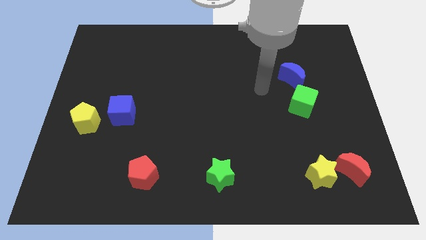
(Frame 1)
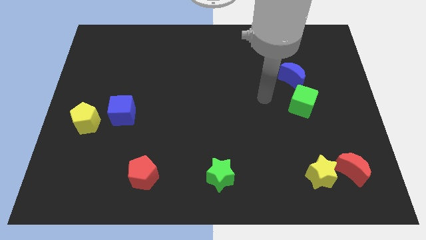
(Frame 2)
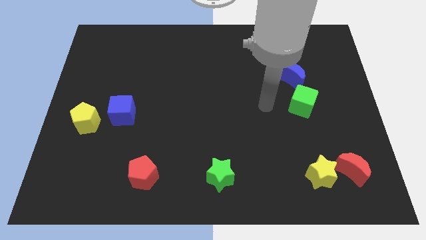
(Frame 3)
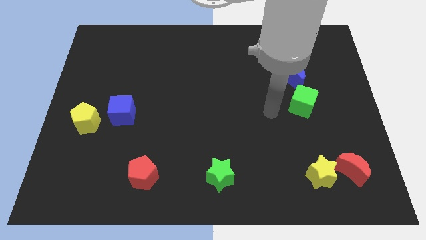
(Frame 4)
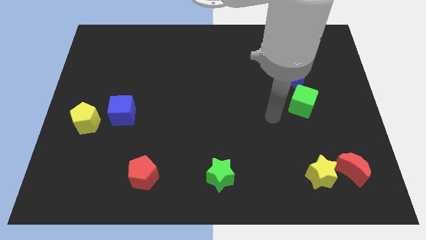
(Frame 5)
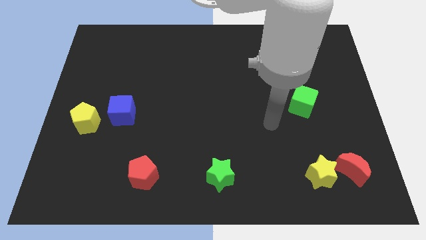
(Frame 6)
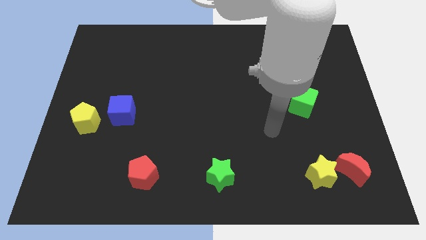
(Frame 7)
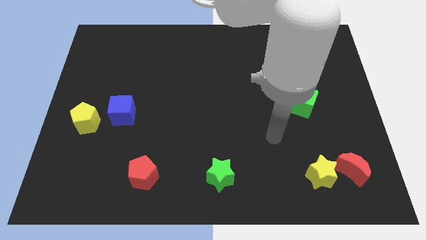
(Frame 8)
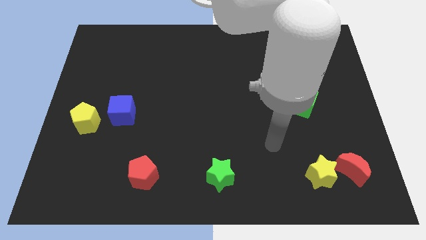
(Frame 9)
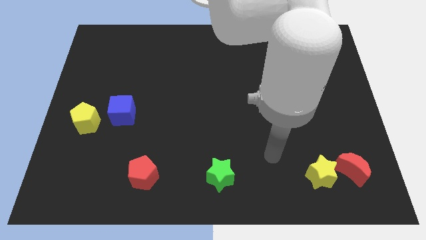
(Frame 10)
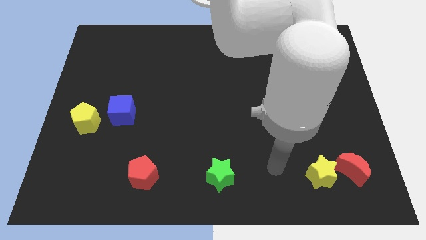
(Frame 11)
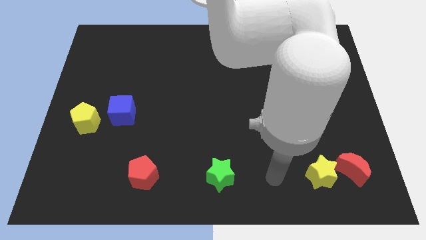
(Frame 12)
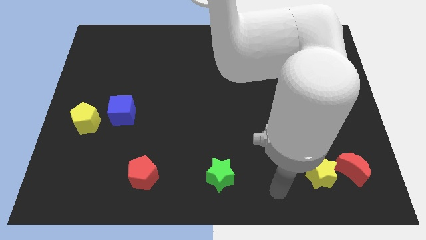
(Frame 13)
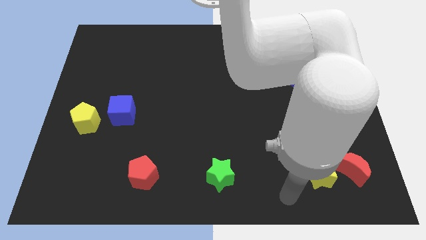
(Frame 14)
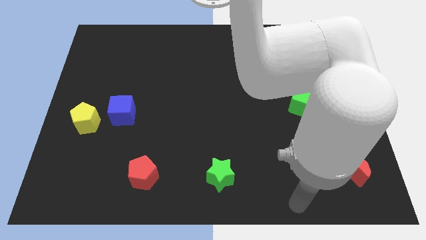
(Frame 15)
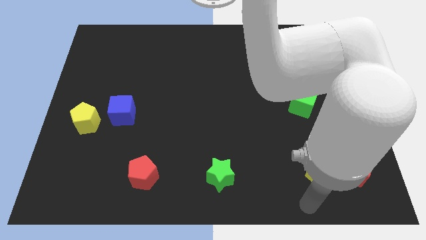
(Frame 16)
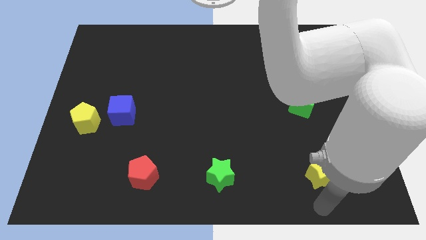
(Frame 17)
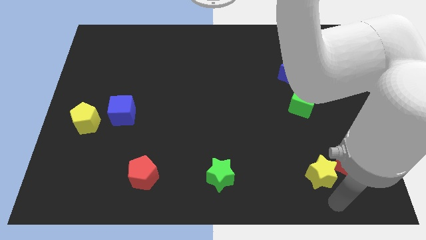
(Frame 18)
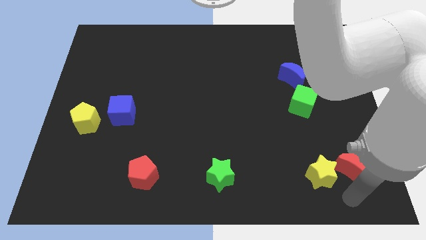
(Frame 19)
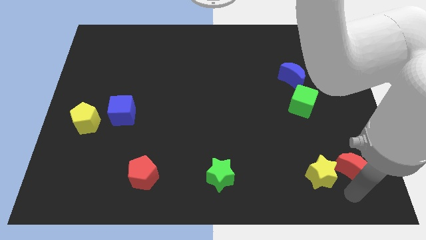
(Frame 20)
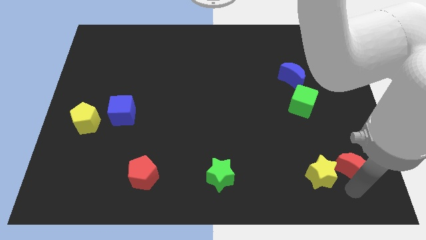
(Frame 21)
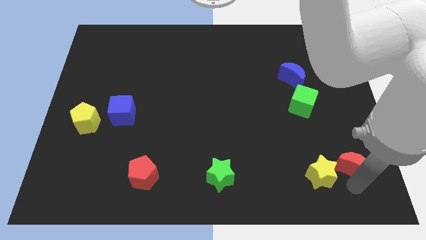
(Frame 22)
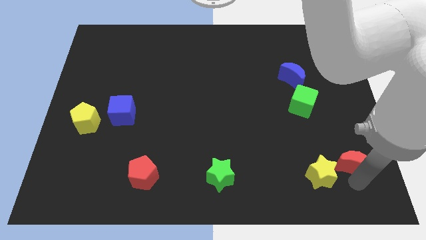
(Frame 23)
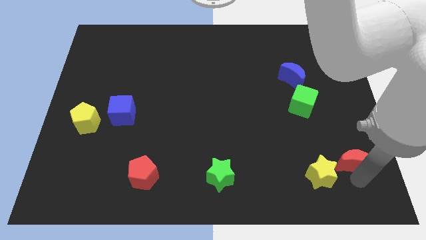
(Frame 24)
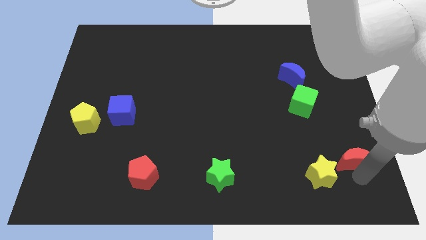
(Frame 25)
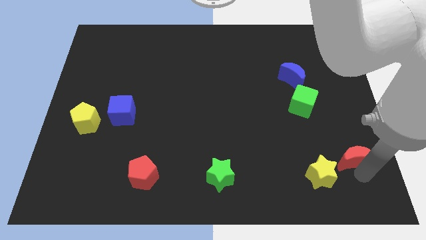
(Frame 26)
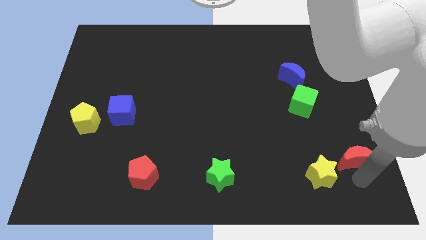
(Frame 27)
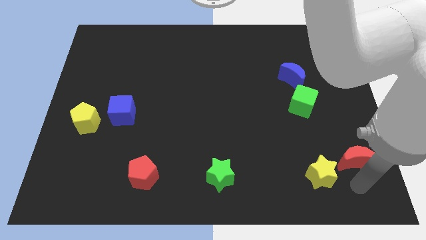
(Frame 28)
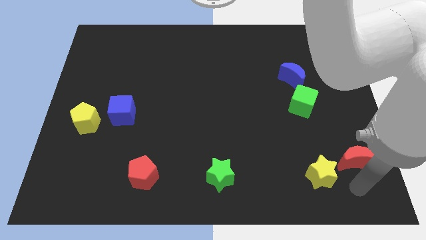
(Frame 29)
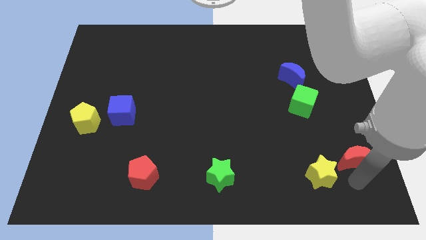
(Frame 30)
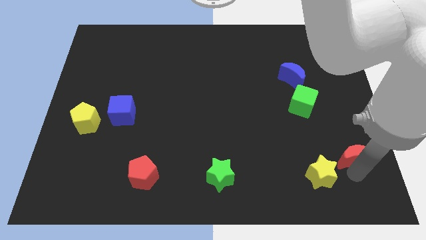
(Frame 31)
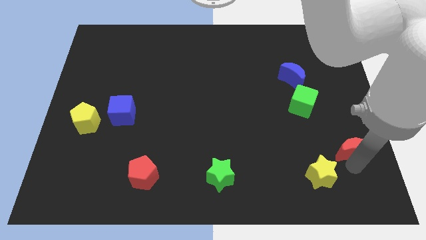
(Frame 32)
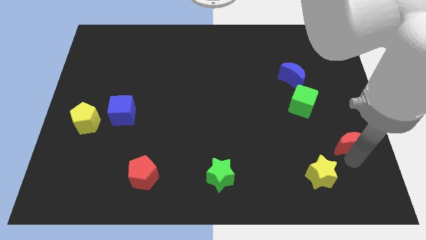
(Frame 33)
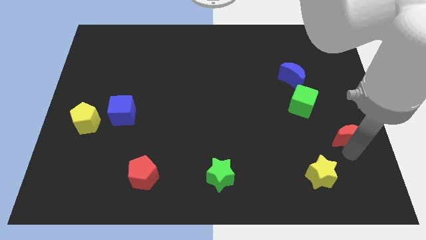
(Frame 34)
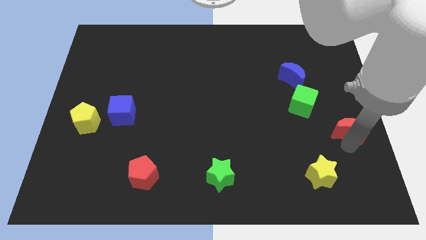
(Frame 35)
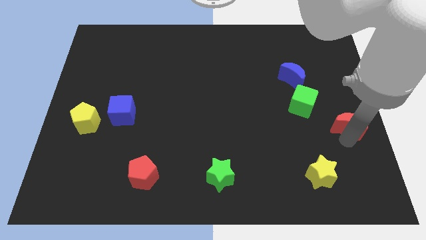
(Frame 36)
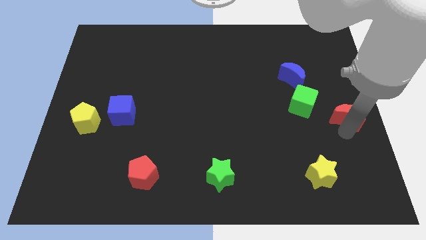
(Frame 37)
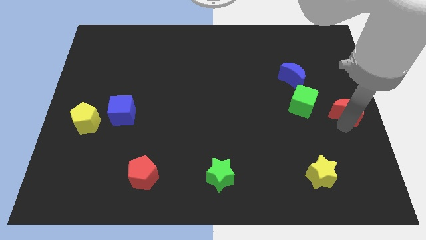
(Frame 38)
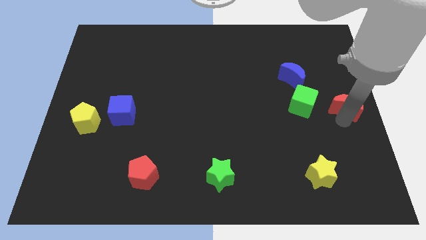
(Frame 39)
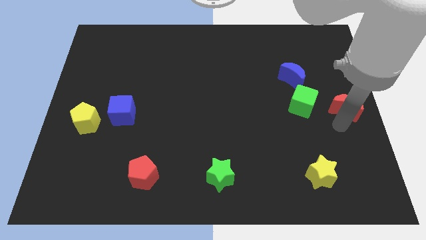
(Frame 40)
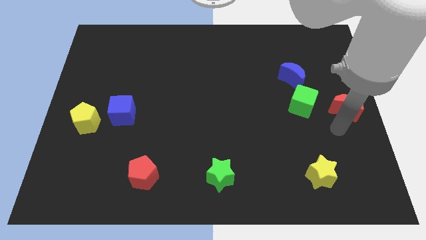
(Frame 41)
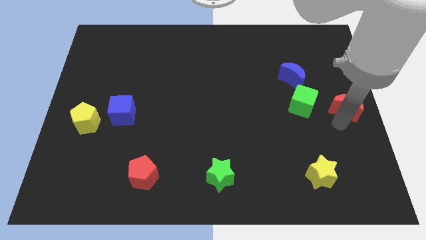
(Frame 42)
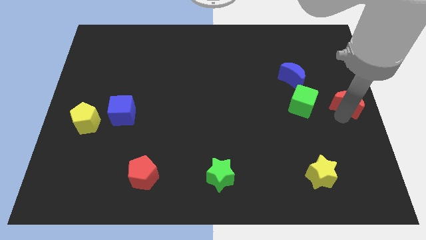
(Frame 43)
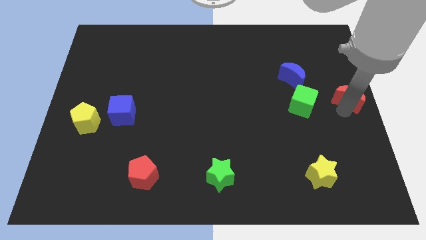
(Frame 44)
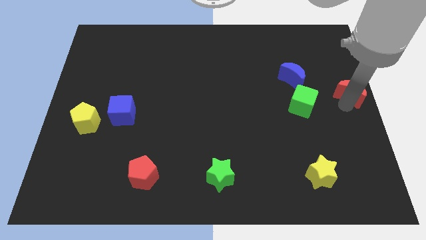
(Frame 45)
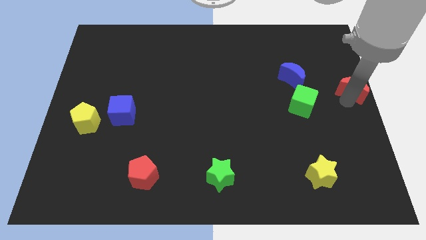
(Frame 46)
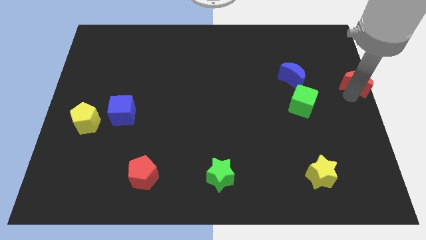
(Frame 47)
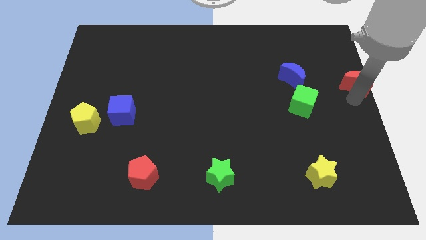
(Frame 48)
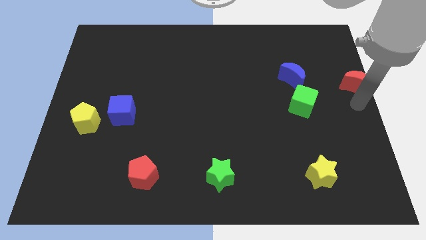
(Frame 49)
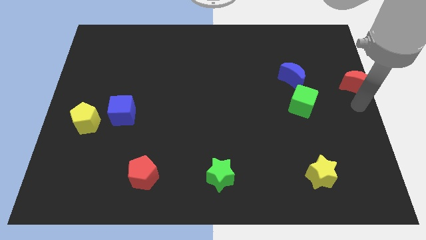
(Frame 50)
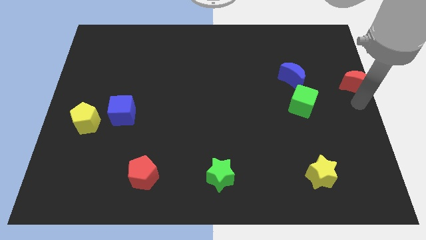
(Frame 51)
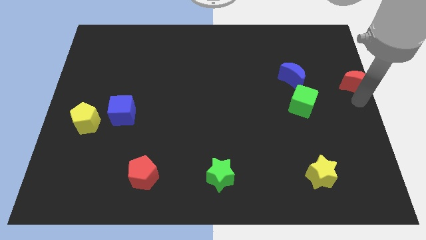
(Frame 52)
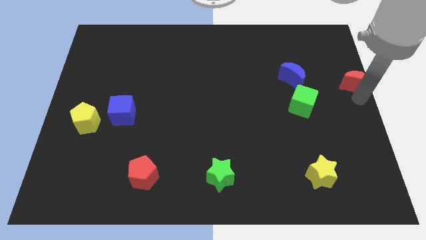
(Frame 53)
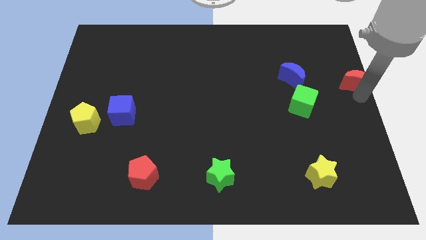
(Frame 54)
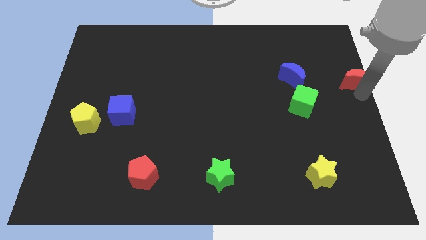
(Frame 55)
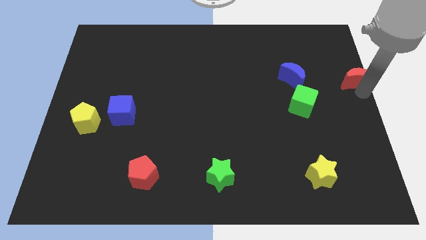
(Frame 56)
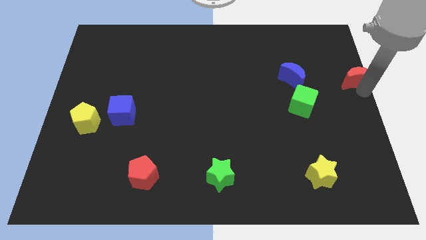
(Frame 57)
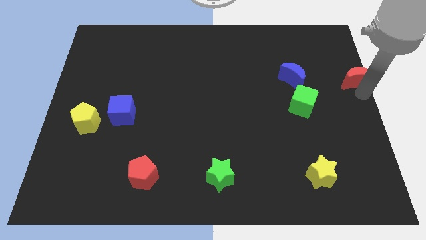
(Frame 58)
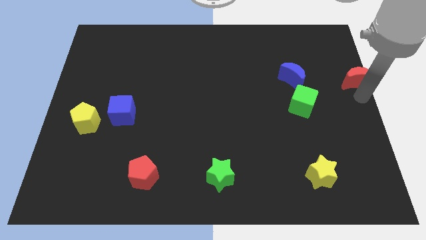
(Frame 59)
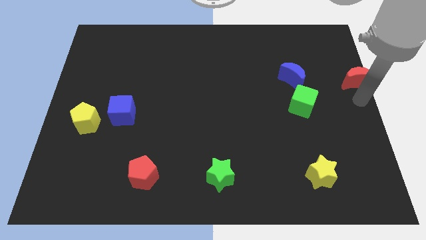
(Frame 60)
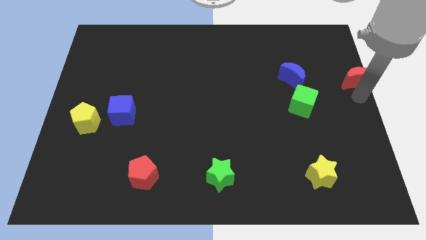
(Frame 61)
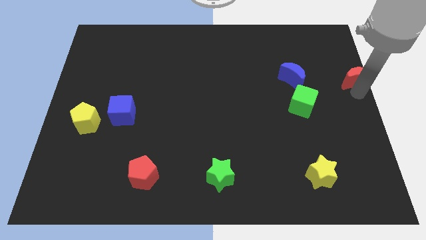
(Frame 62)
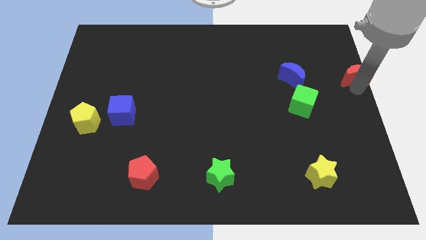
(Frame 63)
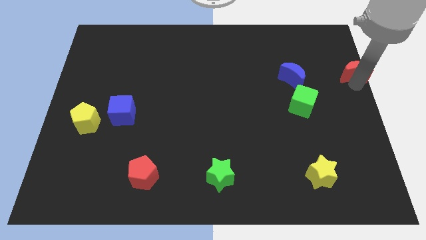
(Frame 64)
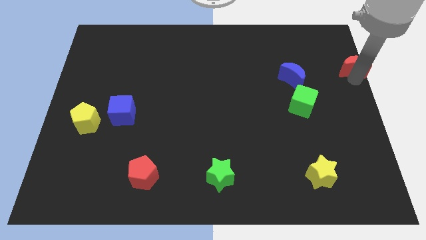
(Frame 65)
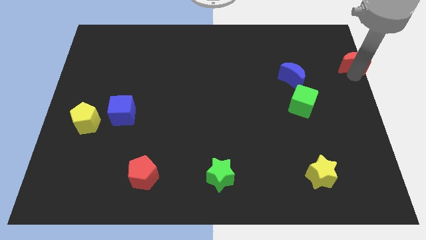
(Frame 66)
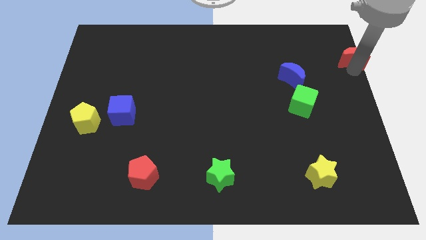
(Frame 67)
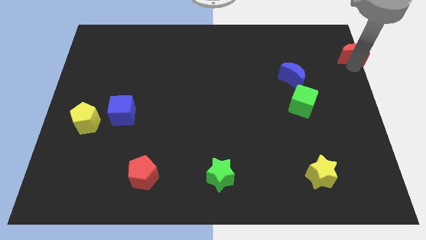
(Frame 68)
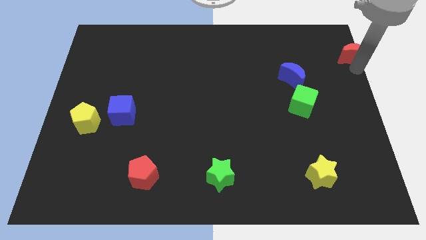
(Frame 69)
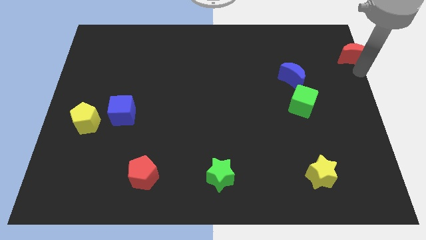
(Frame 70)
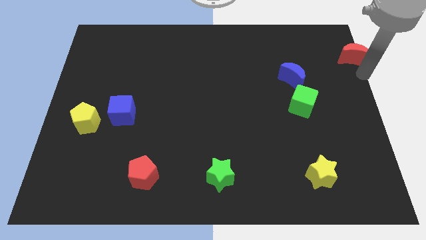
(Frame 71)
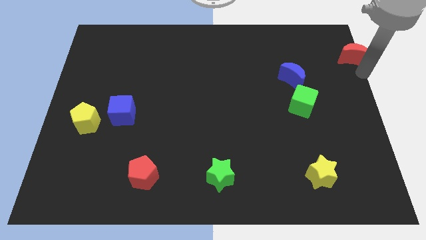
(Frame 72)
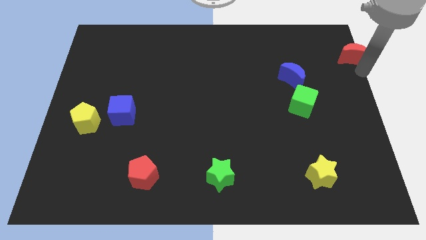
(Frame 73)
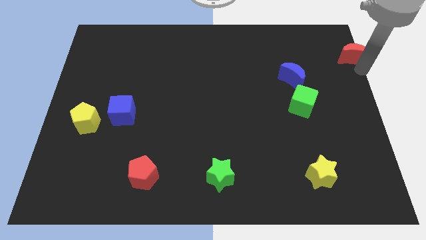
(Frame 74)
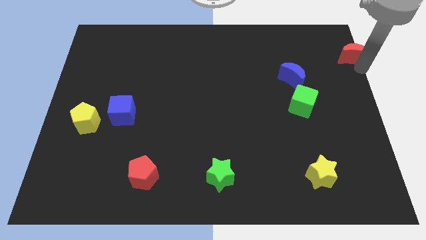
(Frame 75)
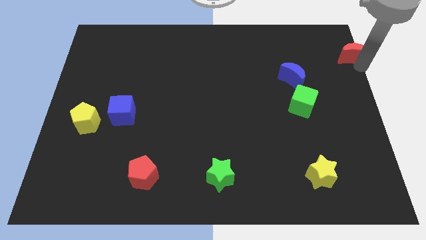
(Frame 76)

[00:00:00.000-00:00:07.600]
slide the red moon to the top right of the board
